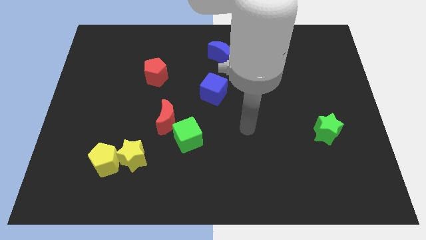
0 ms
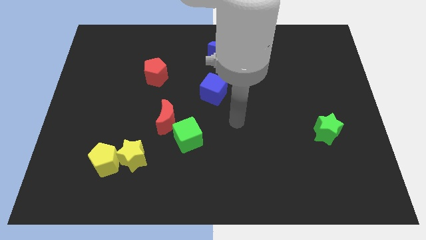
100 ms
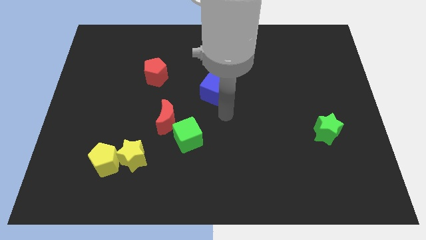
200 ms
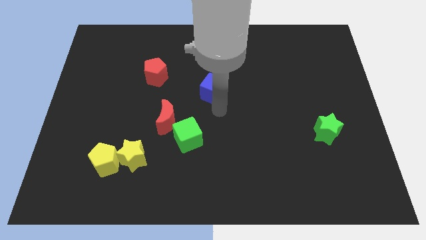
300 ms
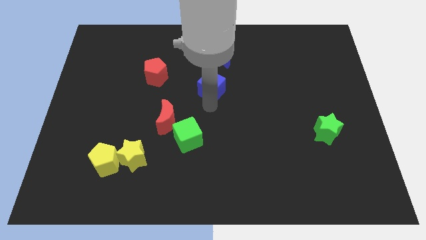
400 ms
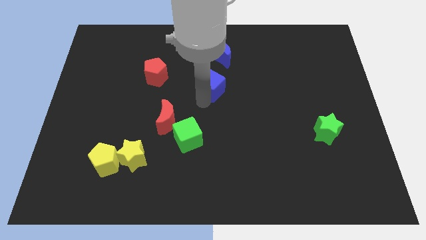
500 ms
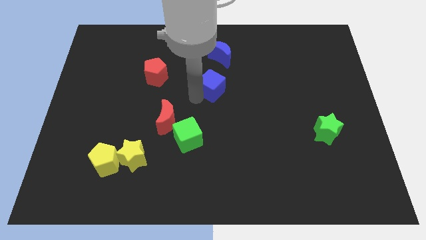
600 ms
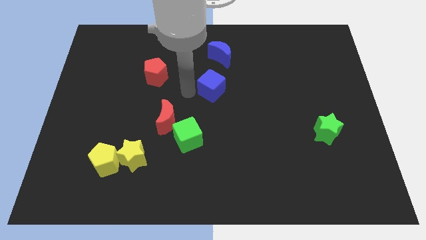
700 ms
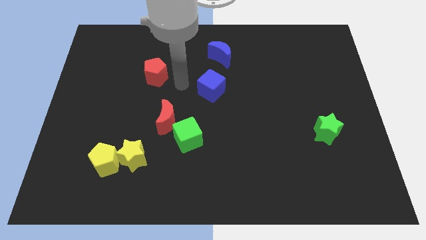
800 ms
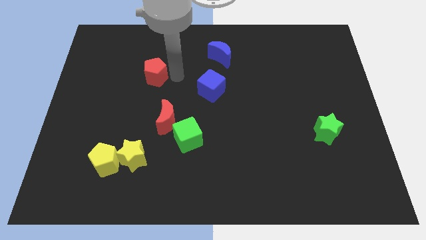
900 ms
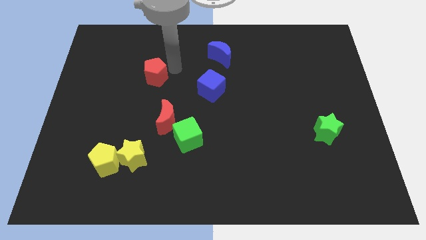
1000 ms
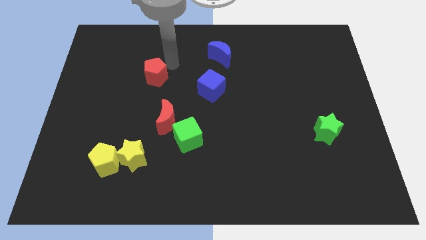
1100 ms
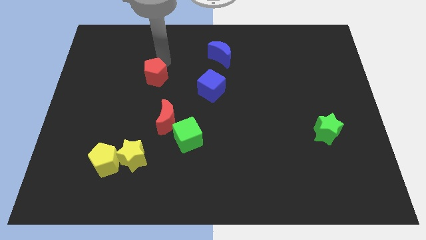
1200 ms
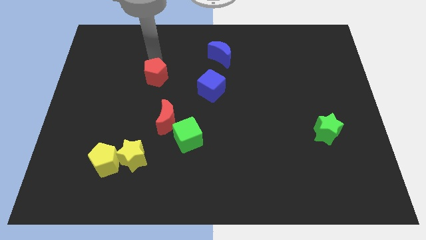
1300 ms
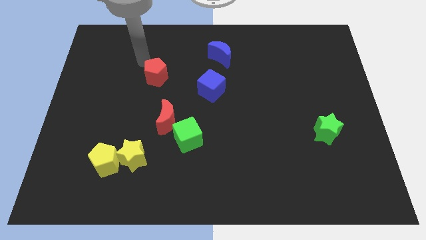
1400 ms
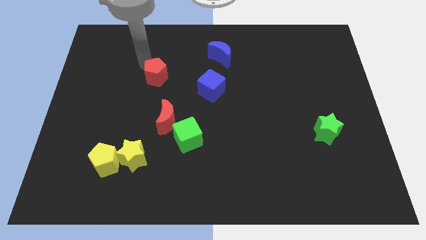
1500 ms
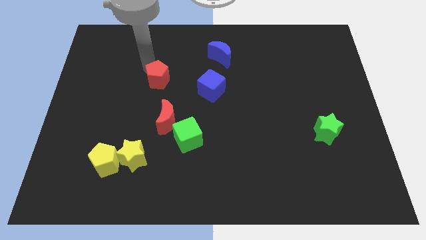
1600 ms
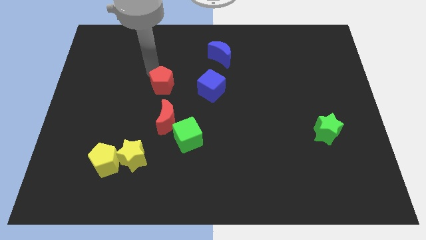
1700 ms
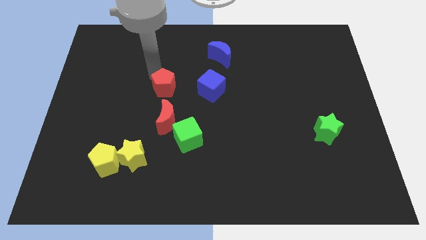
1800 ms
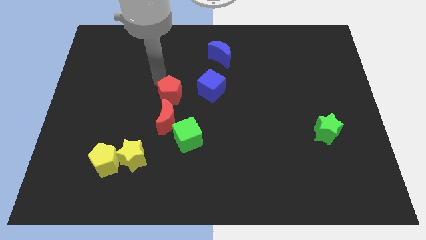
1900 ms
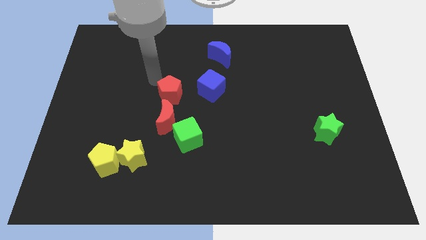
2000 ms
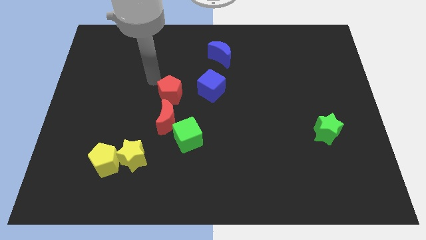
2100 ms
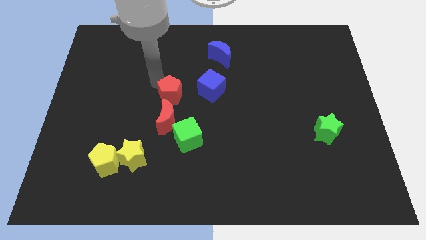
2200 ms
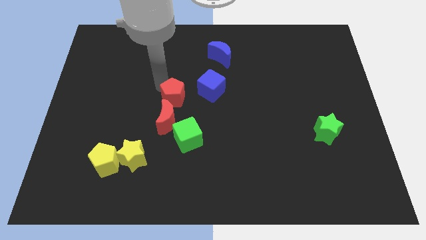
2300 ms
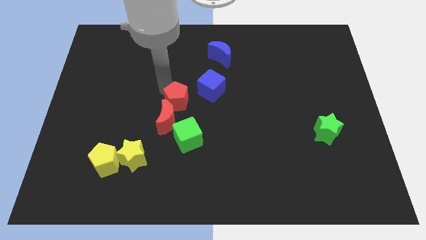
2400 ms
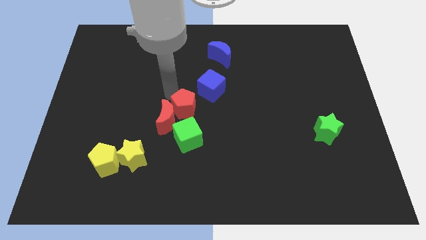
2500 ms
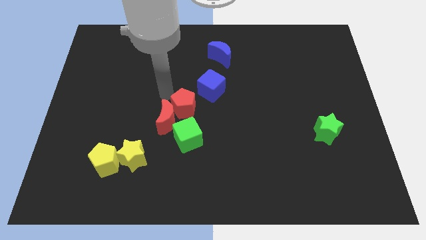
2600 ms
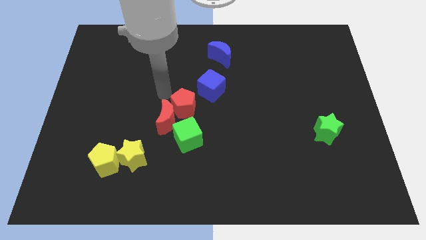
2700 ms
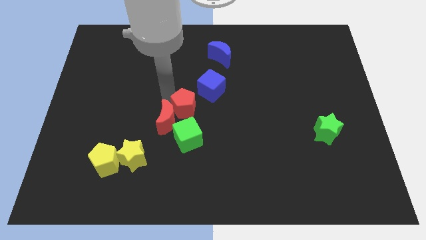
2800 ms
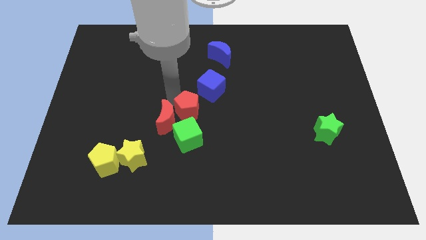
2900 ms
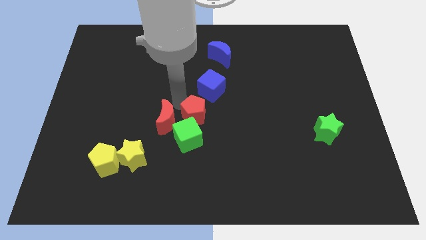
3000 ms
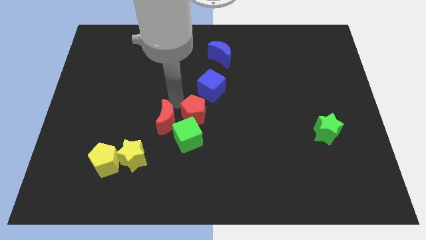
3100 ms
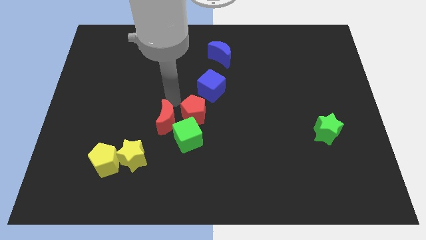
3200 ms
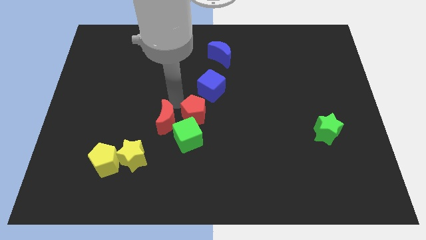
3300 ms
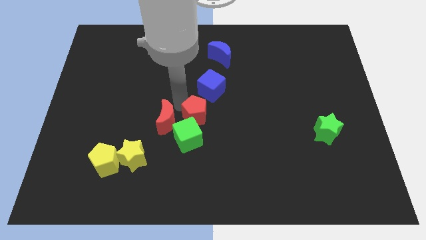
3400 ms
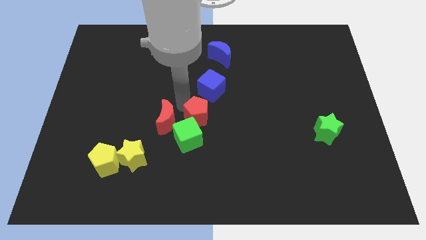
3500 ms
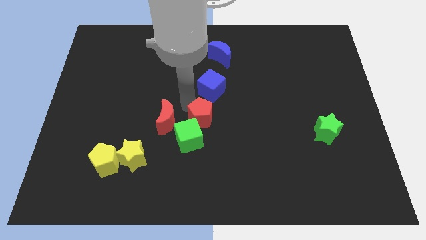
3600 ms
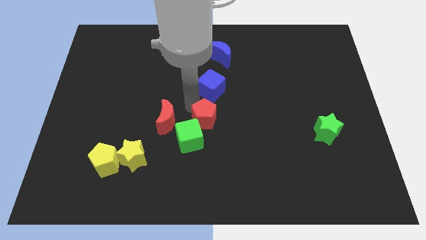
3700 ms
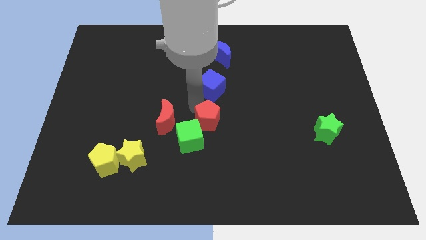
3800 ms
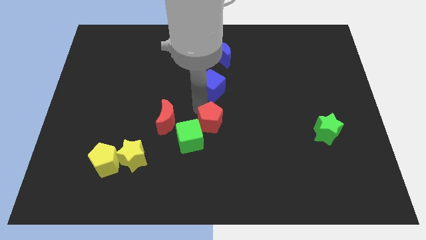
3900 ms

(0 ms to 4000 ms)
move the red pentagon diagonally downwards and to the right

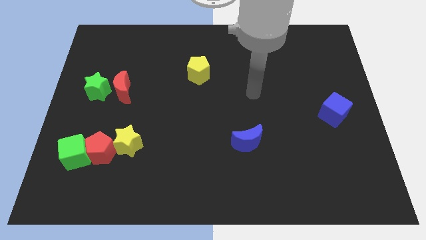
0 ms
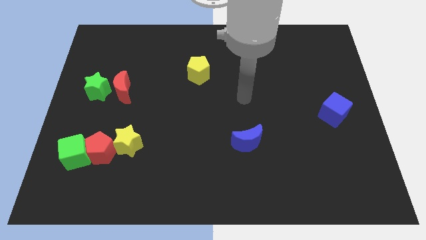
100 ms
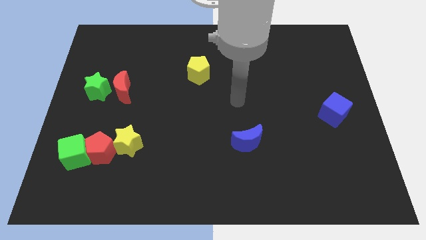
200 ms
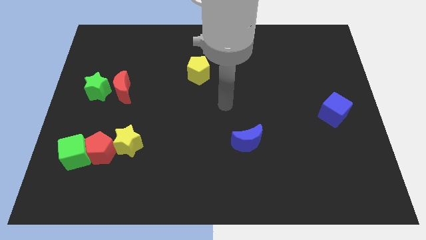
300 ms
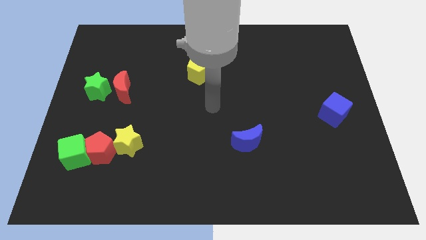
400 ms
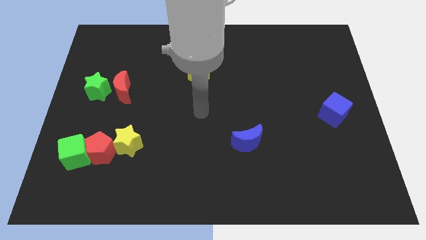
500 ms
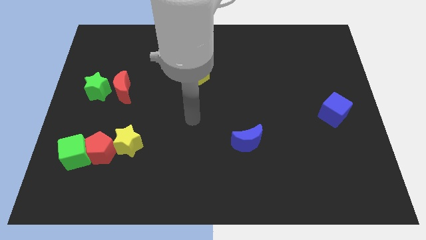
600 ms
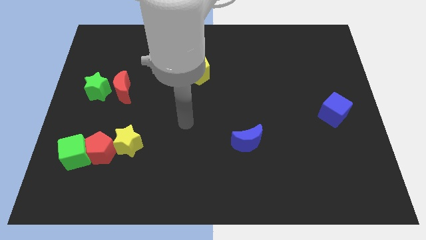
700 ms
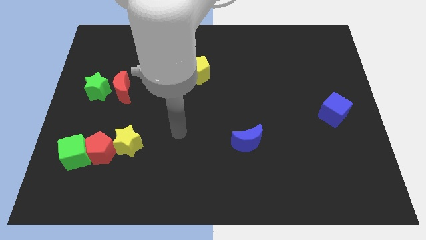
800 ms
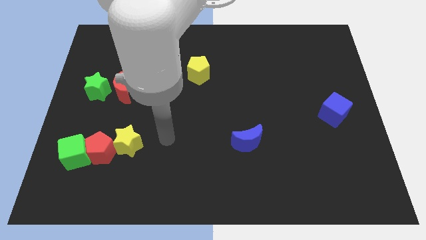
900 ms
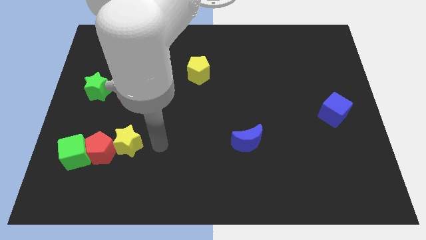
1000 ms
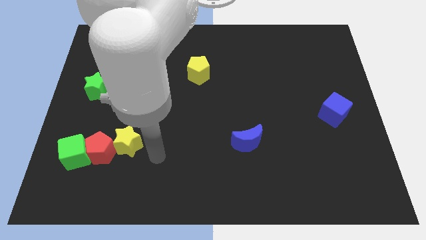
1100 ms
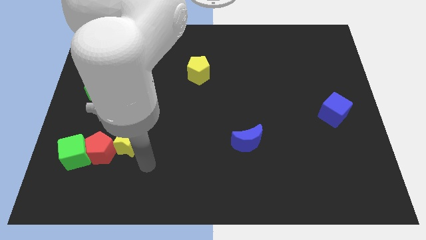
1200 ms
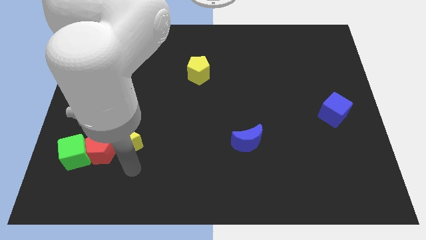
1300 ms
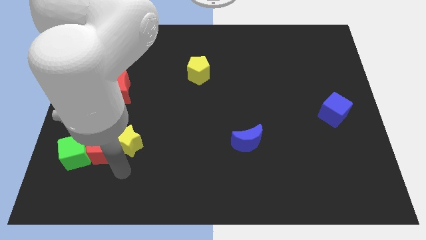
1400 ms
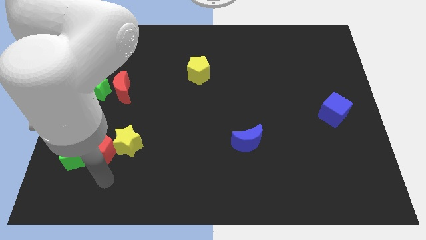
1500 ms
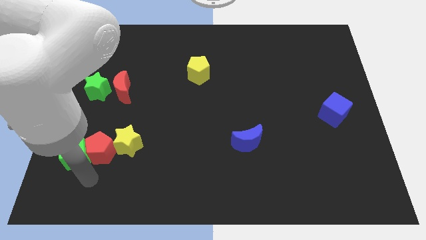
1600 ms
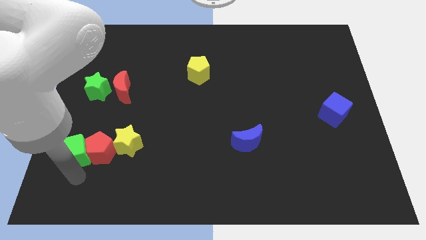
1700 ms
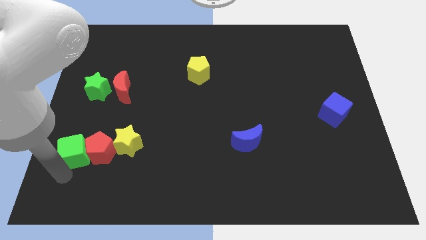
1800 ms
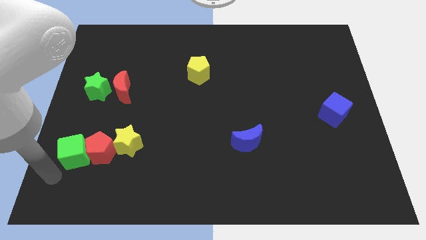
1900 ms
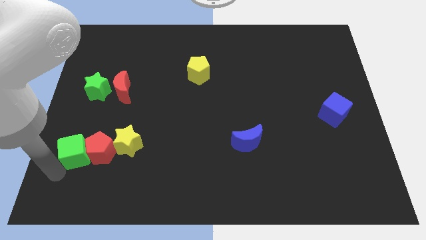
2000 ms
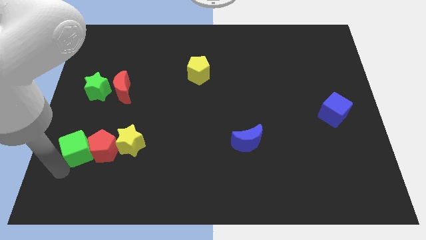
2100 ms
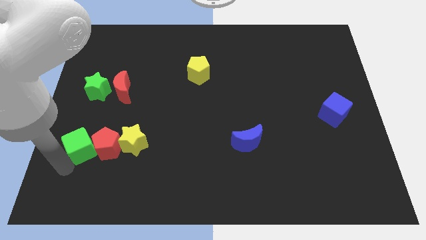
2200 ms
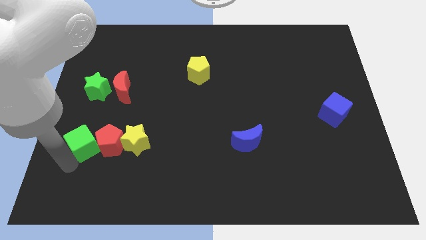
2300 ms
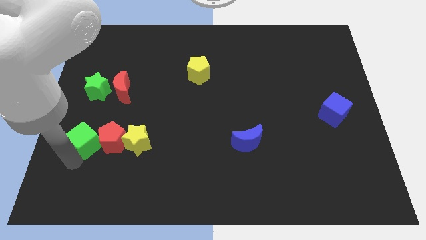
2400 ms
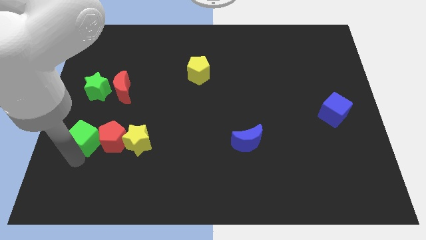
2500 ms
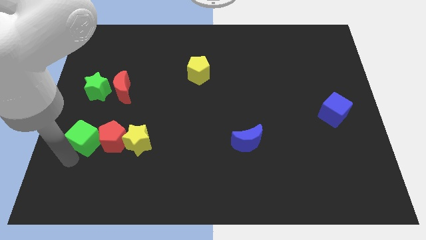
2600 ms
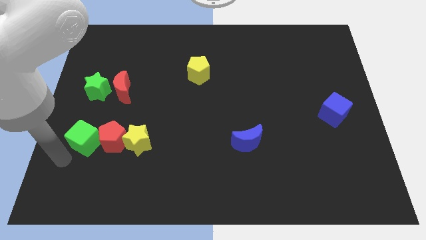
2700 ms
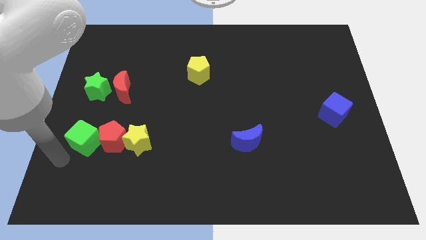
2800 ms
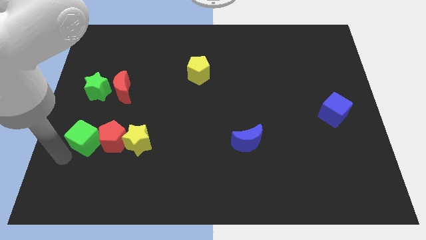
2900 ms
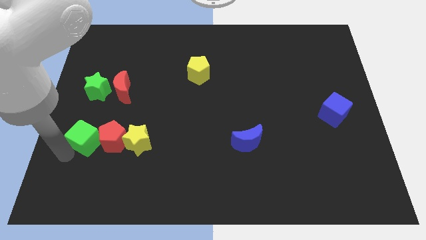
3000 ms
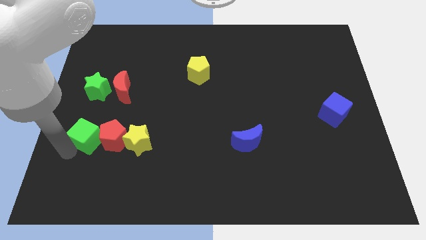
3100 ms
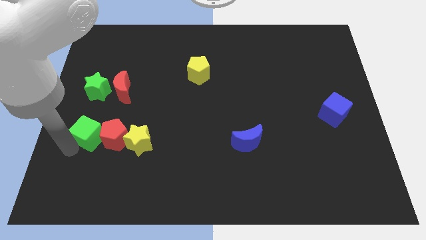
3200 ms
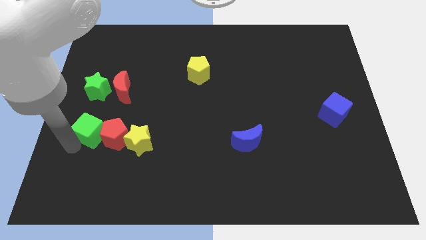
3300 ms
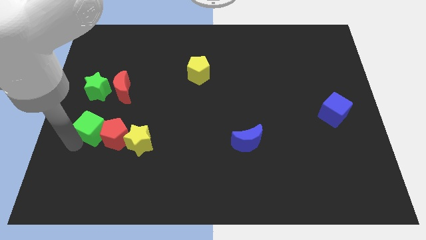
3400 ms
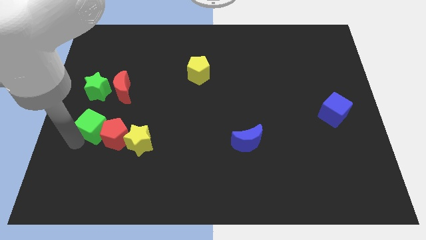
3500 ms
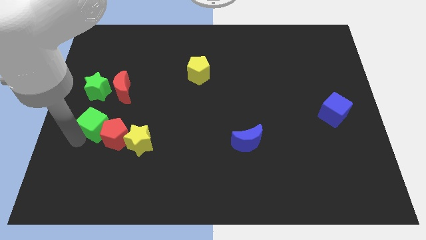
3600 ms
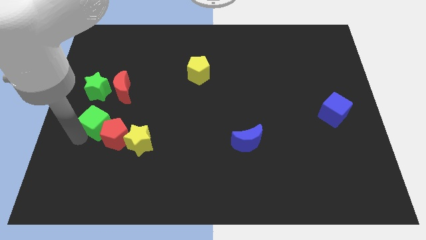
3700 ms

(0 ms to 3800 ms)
slide the green cube a little bit upwards and then to the right

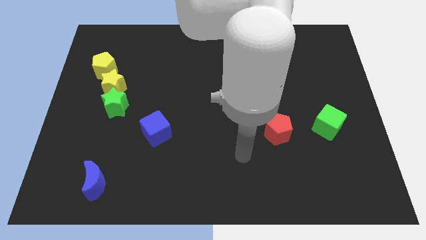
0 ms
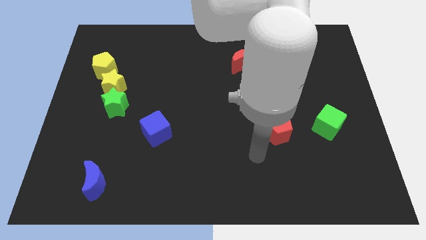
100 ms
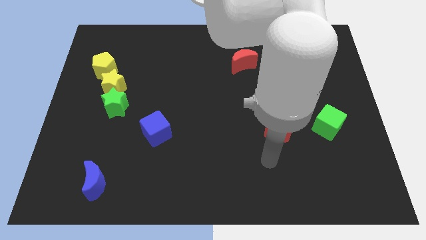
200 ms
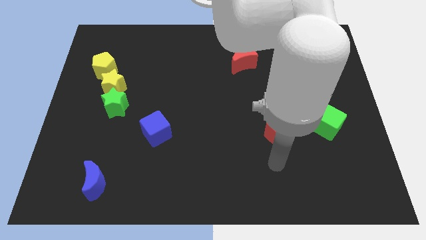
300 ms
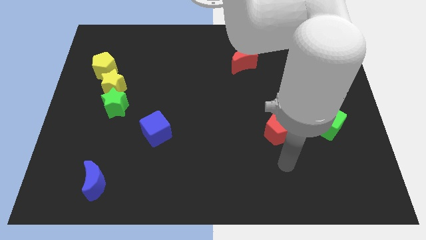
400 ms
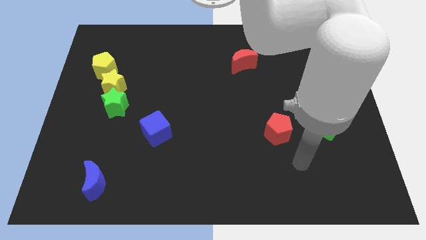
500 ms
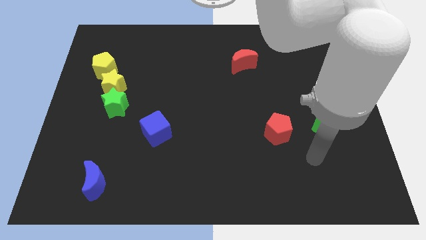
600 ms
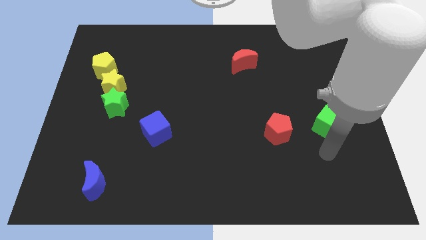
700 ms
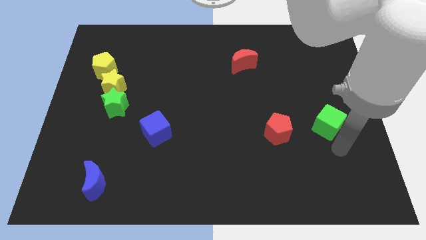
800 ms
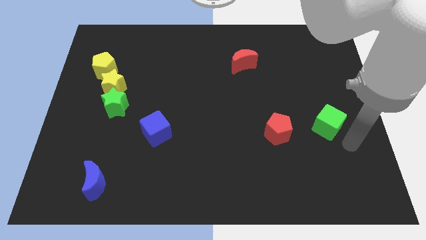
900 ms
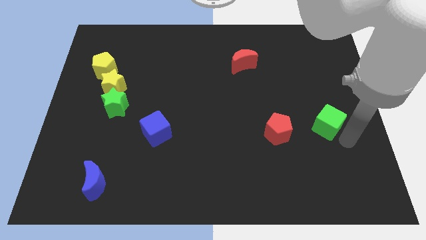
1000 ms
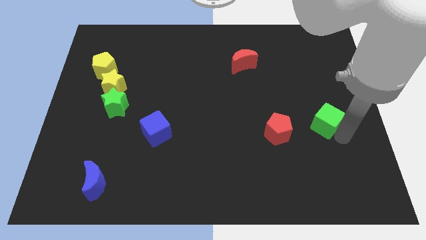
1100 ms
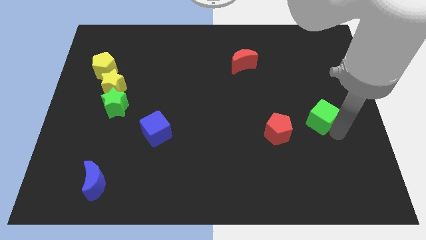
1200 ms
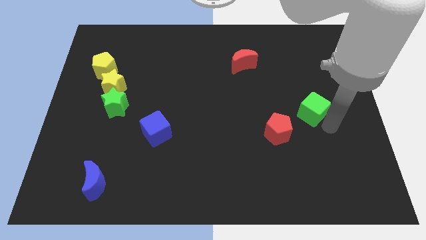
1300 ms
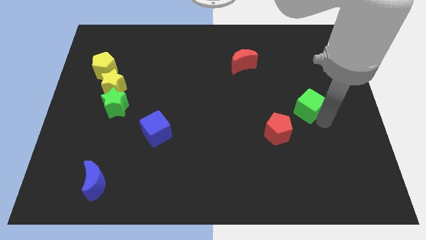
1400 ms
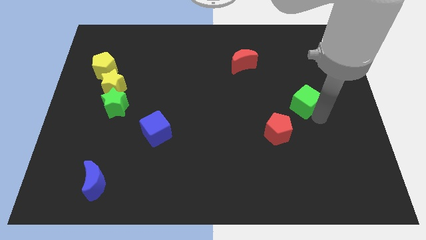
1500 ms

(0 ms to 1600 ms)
slide the green cube upwards and to the left slightly
